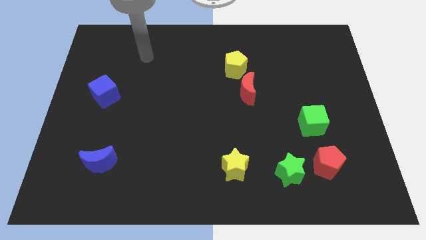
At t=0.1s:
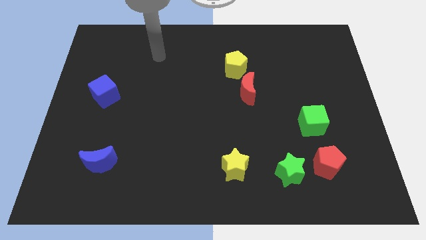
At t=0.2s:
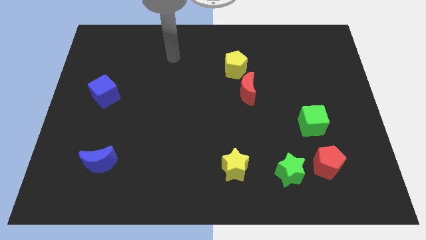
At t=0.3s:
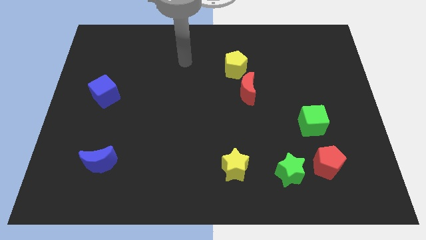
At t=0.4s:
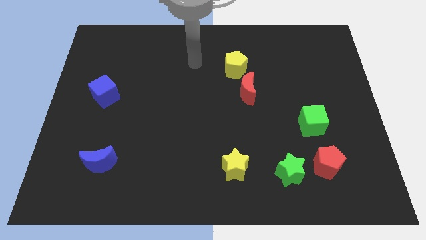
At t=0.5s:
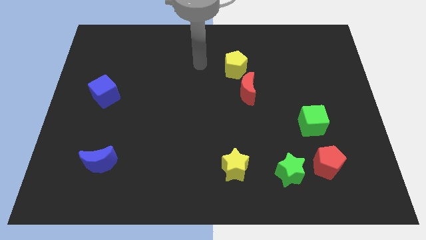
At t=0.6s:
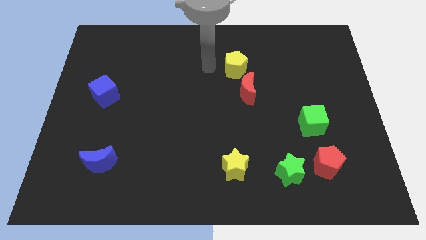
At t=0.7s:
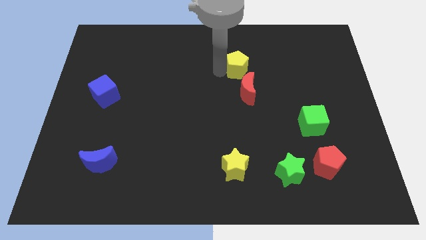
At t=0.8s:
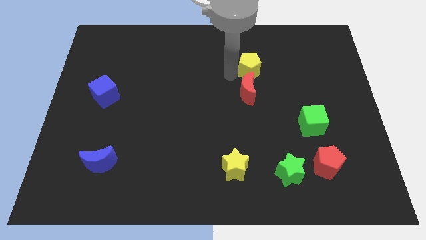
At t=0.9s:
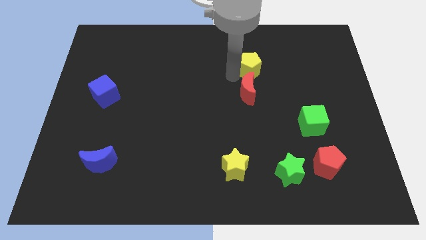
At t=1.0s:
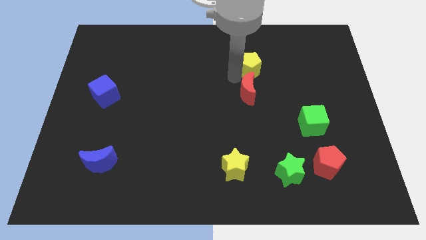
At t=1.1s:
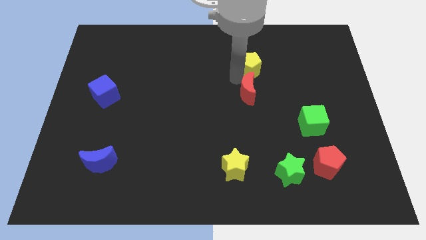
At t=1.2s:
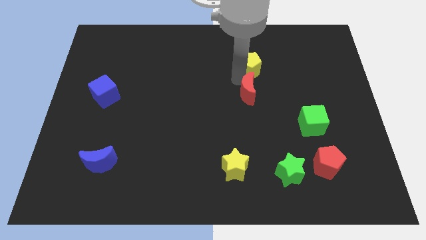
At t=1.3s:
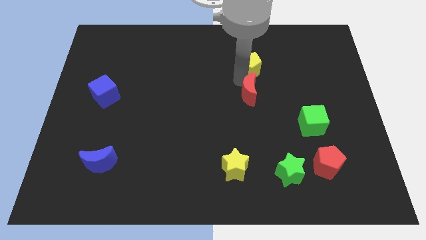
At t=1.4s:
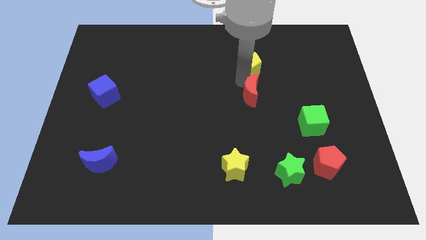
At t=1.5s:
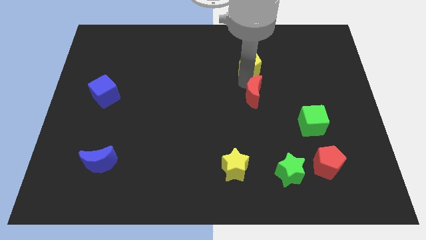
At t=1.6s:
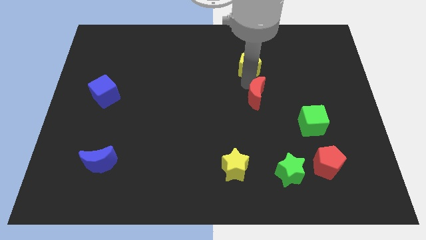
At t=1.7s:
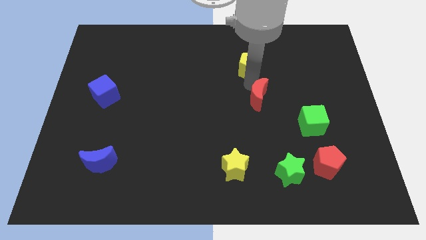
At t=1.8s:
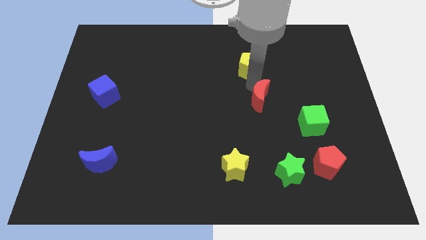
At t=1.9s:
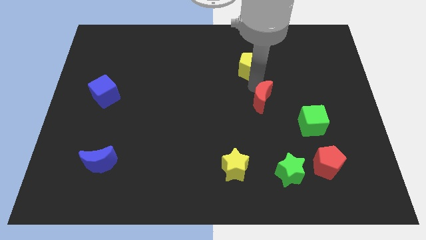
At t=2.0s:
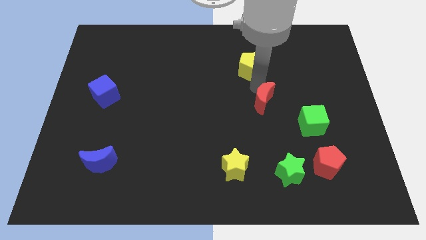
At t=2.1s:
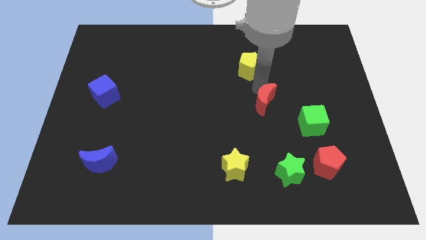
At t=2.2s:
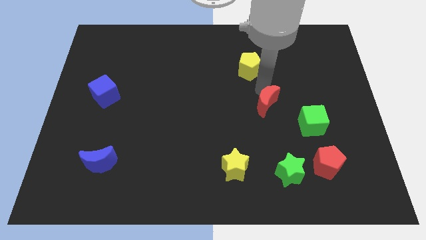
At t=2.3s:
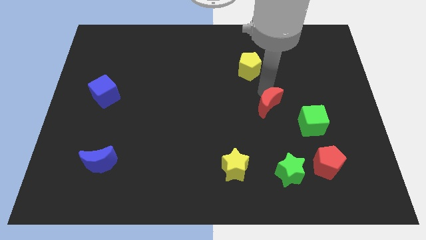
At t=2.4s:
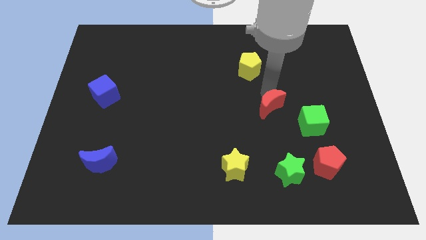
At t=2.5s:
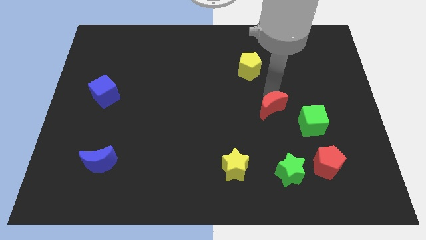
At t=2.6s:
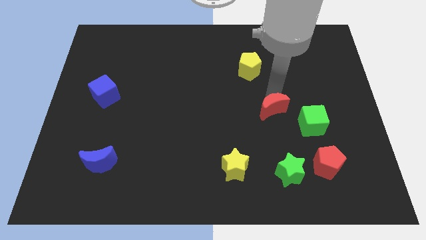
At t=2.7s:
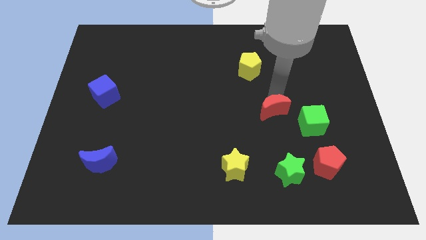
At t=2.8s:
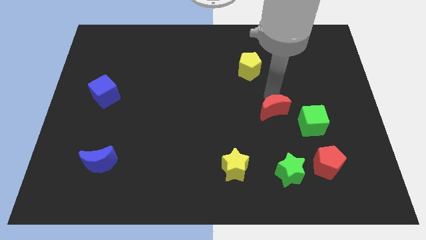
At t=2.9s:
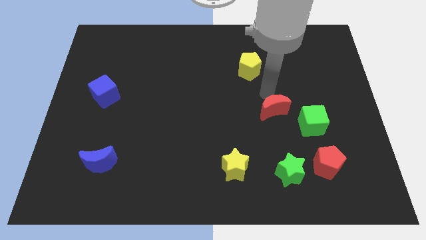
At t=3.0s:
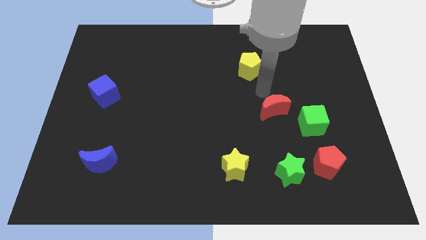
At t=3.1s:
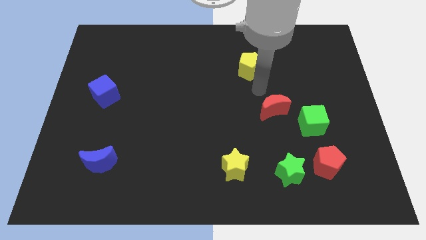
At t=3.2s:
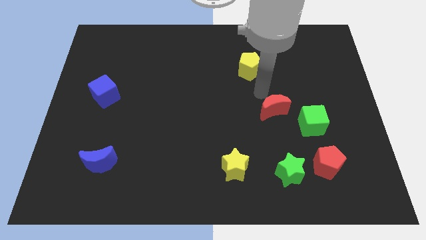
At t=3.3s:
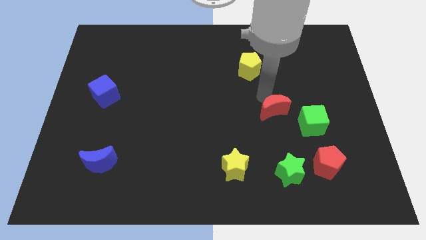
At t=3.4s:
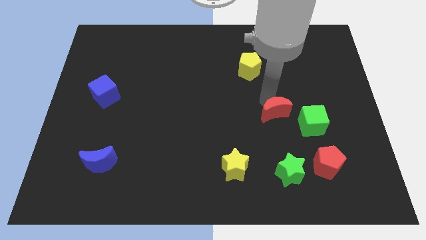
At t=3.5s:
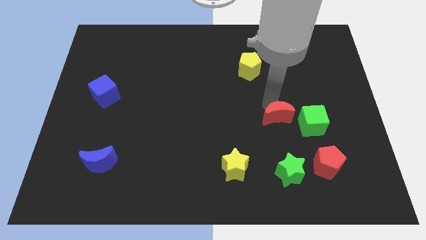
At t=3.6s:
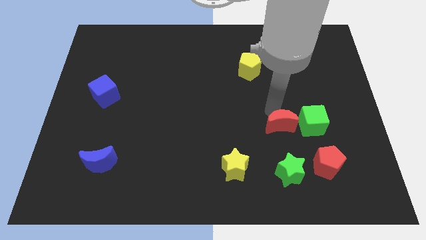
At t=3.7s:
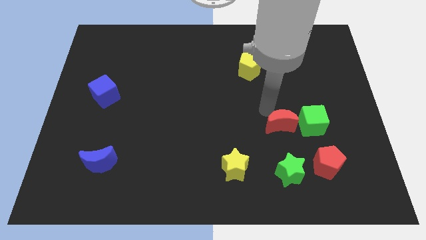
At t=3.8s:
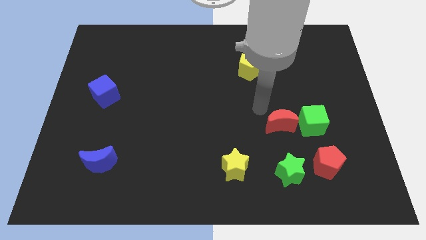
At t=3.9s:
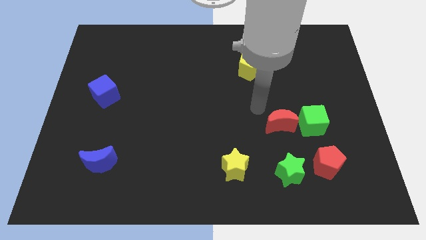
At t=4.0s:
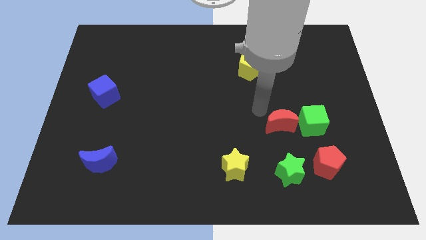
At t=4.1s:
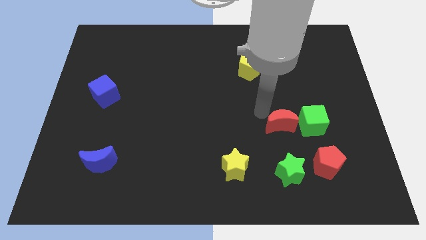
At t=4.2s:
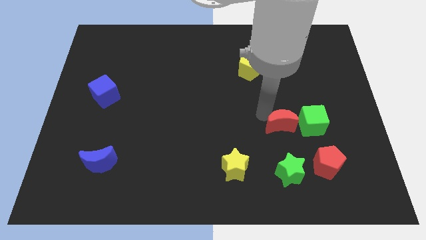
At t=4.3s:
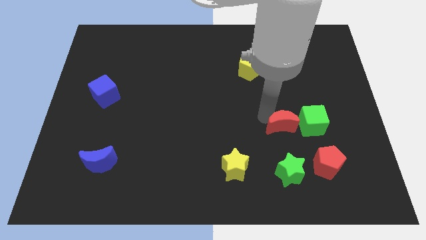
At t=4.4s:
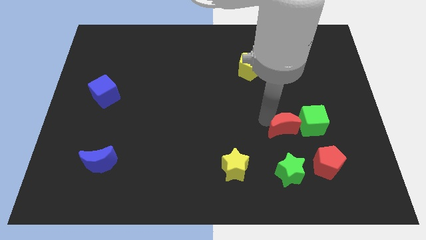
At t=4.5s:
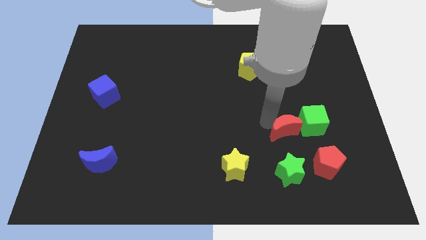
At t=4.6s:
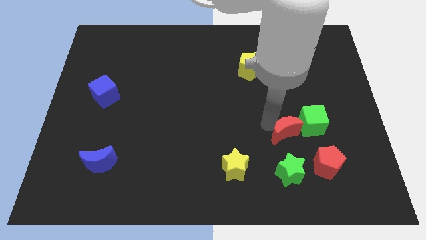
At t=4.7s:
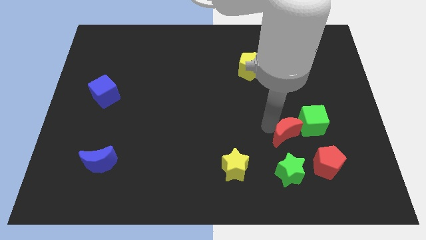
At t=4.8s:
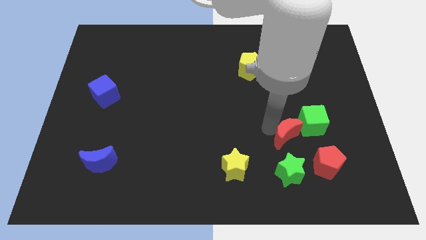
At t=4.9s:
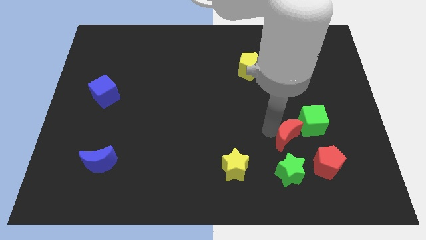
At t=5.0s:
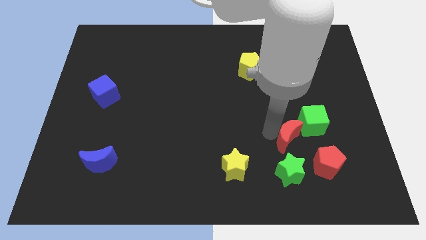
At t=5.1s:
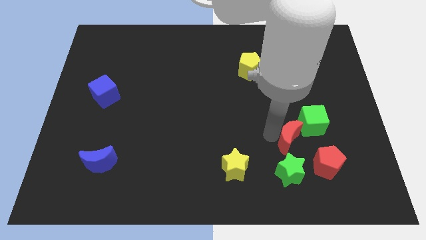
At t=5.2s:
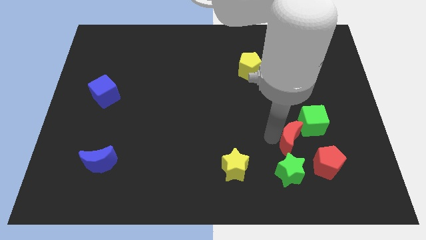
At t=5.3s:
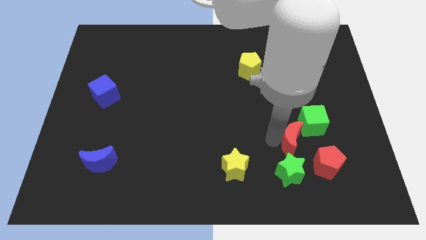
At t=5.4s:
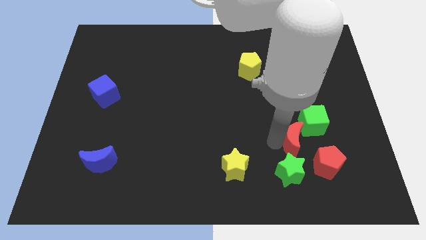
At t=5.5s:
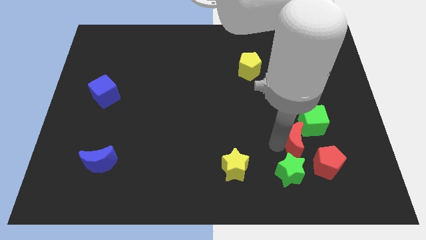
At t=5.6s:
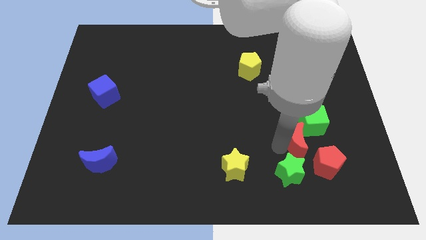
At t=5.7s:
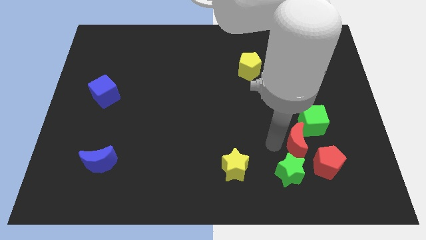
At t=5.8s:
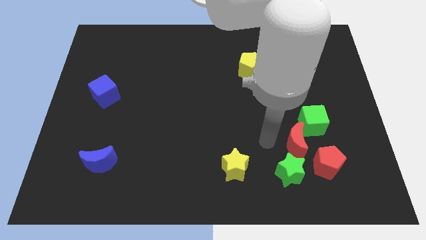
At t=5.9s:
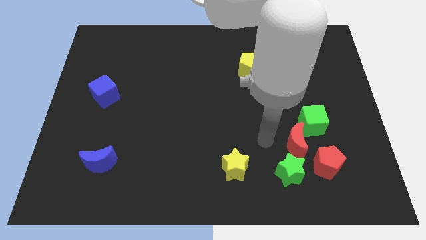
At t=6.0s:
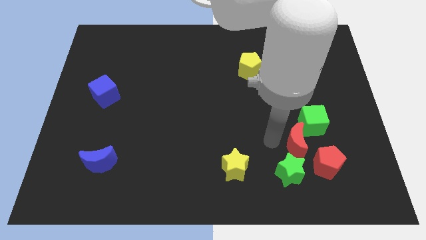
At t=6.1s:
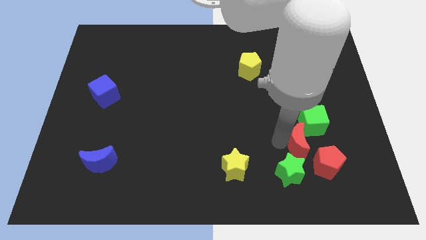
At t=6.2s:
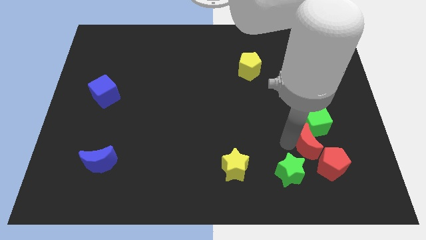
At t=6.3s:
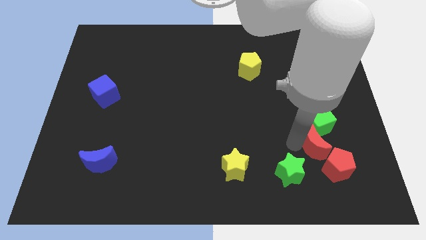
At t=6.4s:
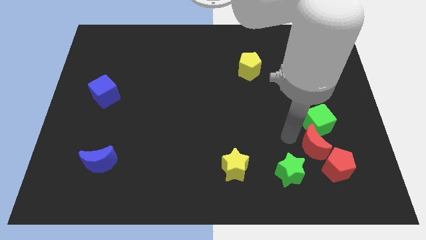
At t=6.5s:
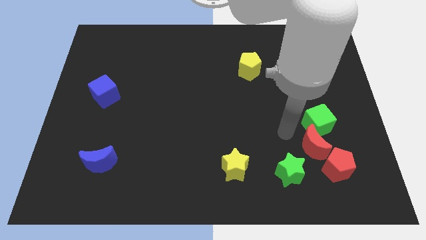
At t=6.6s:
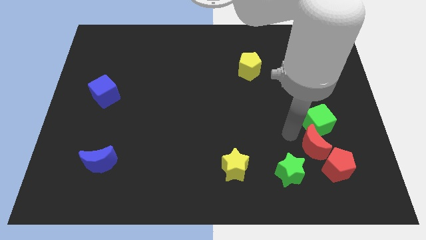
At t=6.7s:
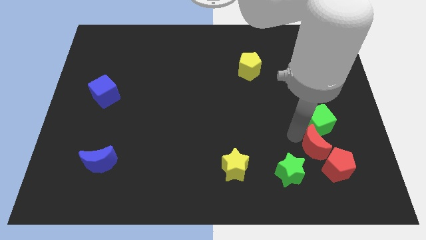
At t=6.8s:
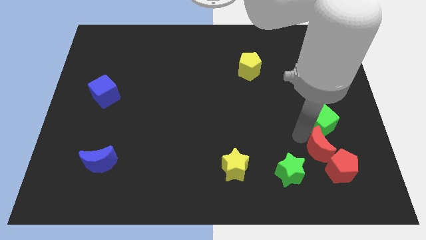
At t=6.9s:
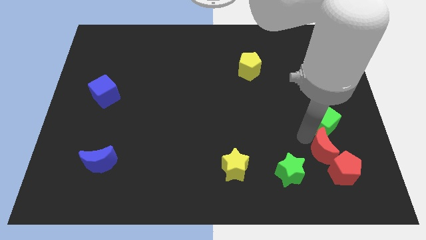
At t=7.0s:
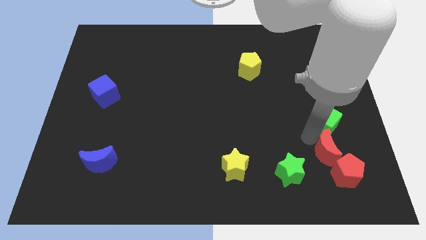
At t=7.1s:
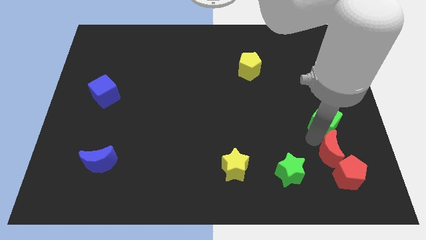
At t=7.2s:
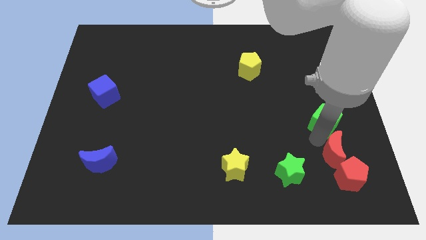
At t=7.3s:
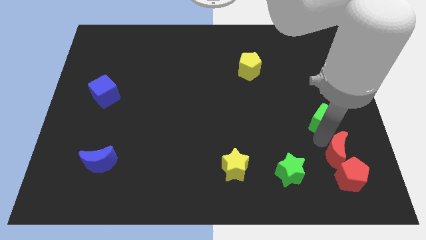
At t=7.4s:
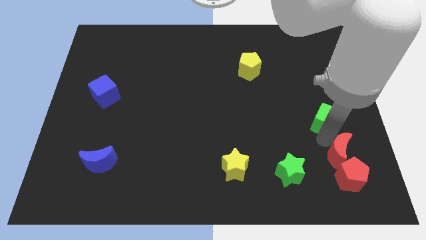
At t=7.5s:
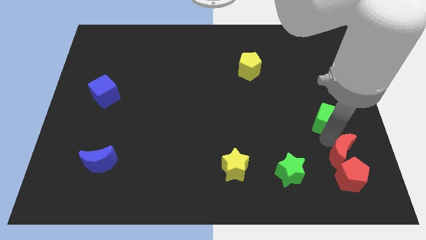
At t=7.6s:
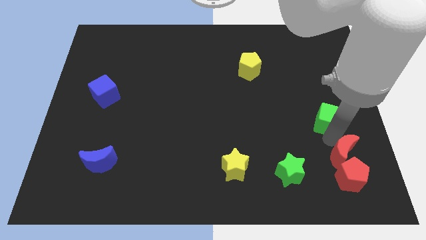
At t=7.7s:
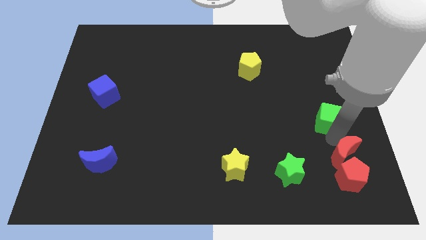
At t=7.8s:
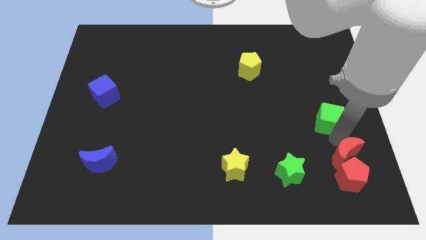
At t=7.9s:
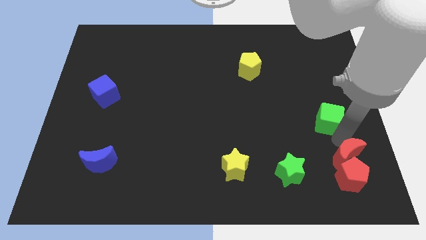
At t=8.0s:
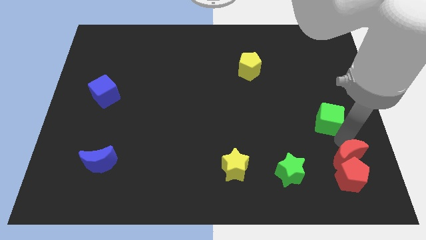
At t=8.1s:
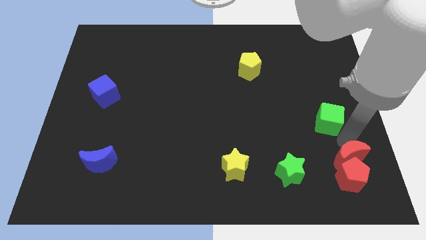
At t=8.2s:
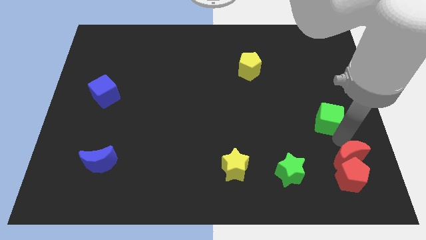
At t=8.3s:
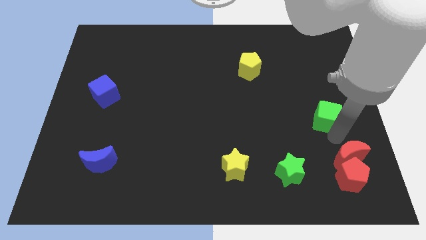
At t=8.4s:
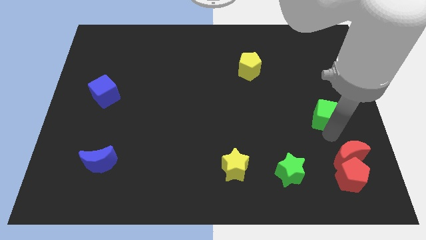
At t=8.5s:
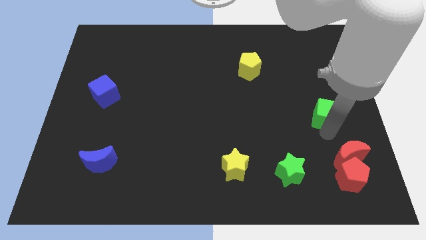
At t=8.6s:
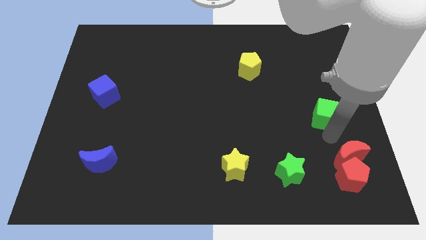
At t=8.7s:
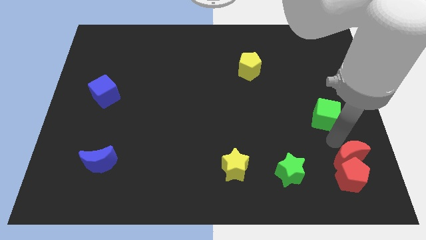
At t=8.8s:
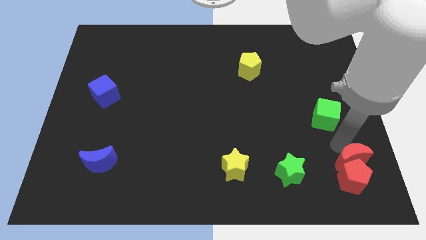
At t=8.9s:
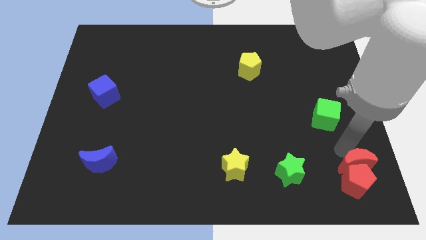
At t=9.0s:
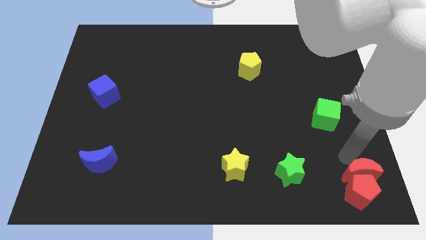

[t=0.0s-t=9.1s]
move the red moon to the bottom right corner
